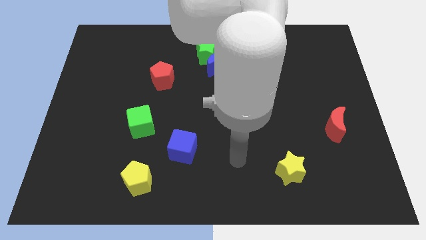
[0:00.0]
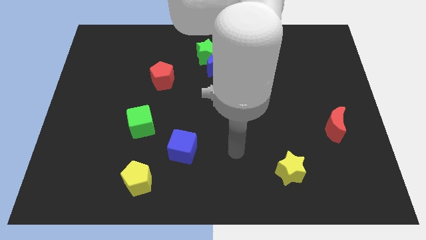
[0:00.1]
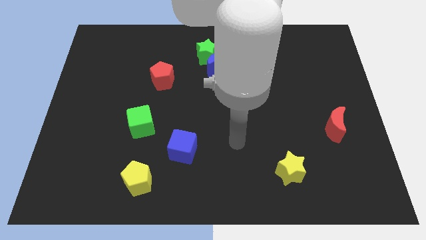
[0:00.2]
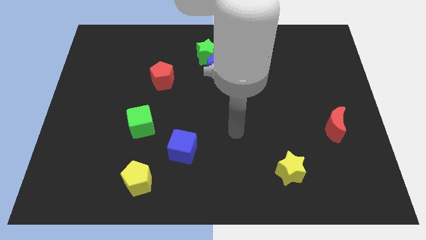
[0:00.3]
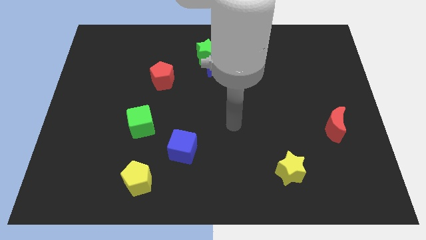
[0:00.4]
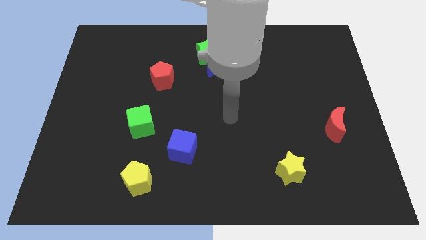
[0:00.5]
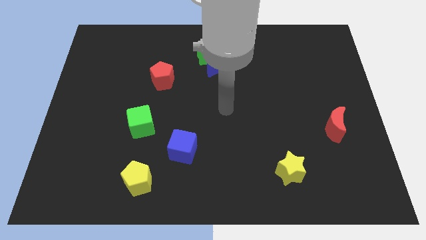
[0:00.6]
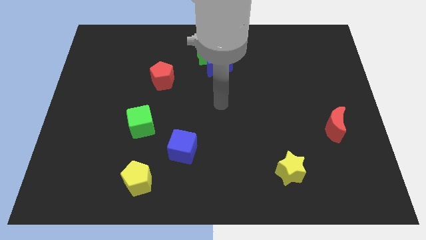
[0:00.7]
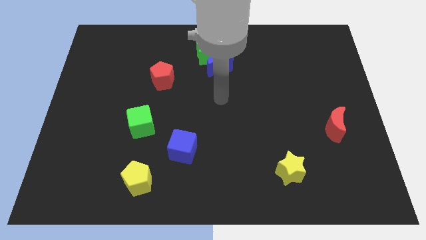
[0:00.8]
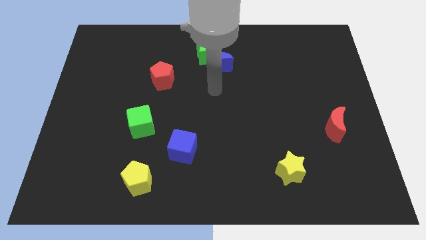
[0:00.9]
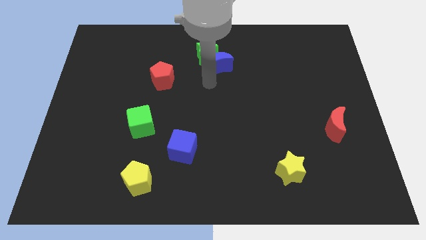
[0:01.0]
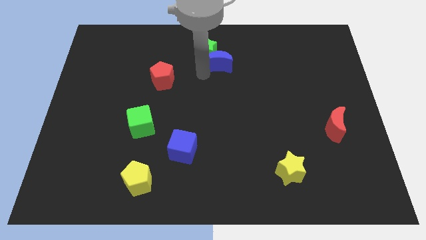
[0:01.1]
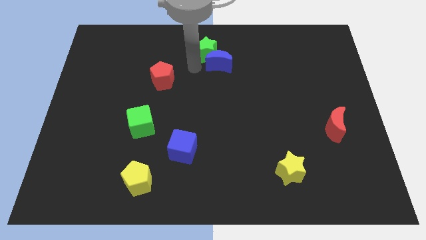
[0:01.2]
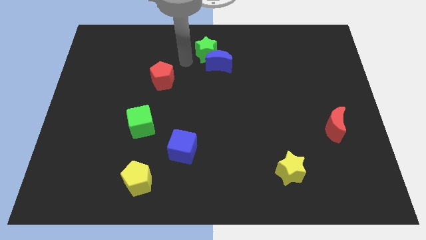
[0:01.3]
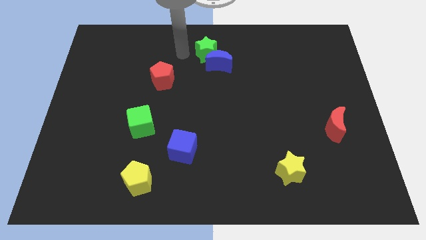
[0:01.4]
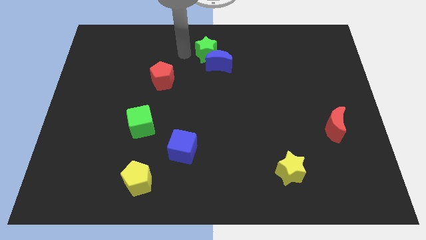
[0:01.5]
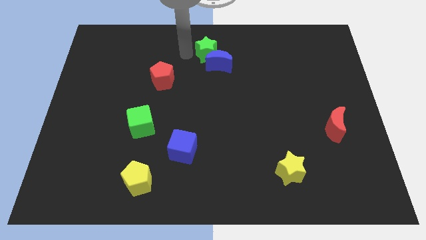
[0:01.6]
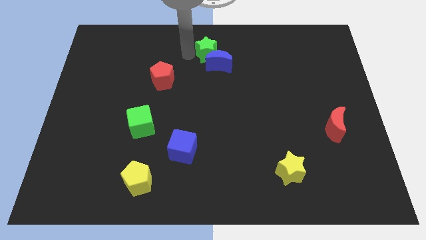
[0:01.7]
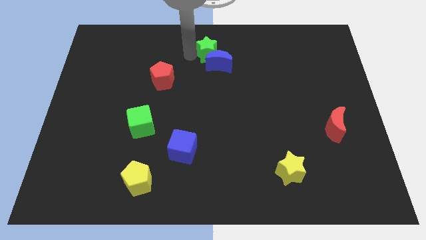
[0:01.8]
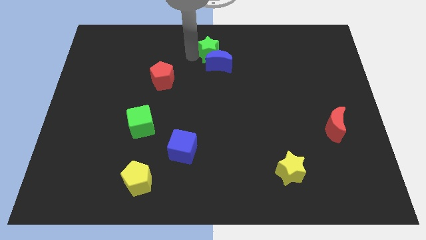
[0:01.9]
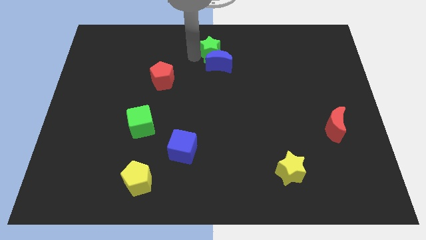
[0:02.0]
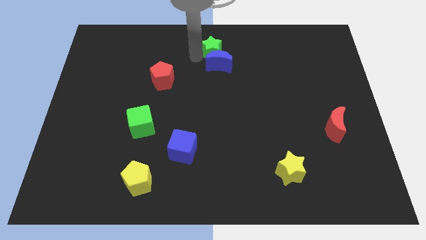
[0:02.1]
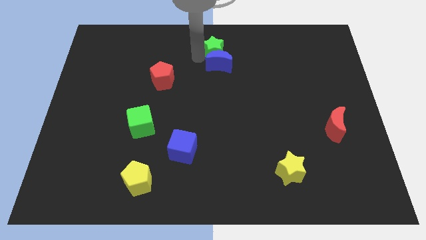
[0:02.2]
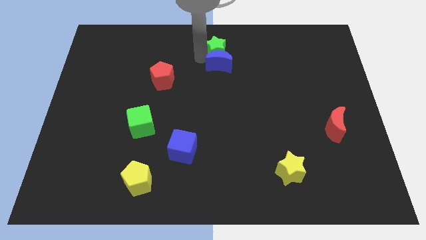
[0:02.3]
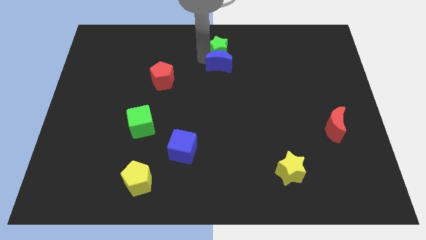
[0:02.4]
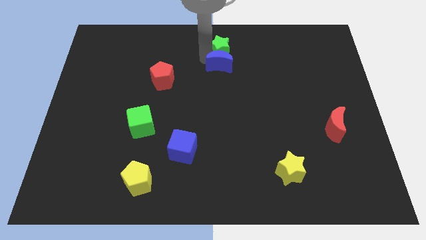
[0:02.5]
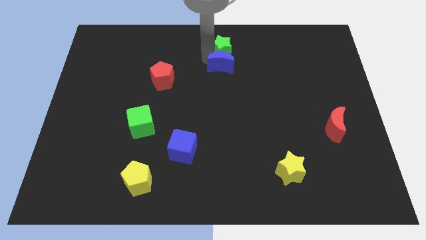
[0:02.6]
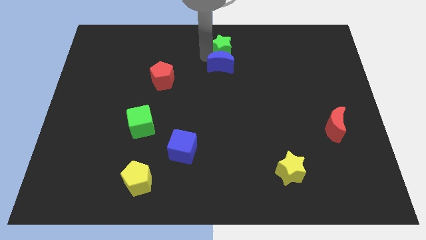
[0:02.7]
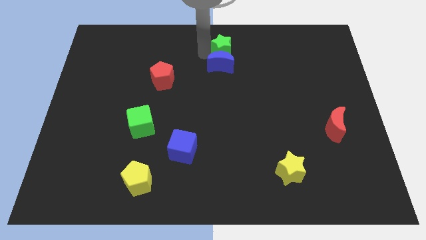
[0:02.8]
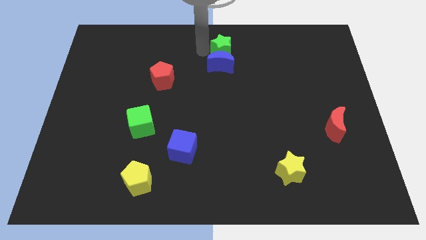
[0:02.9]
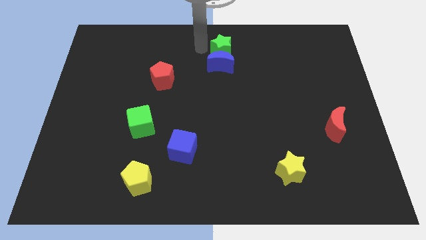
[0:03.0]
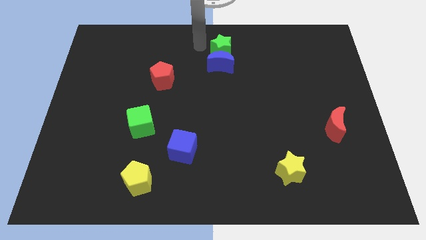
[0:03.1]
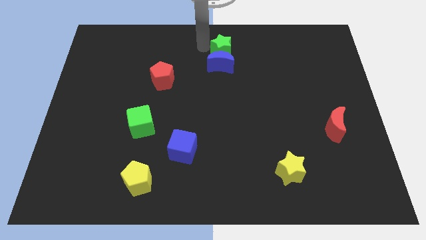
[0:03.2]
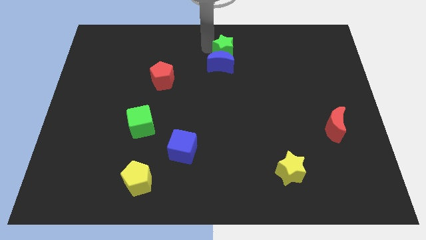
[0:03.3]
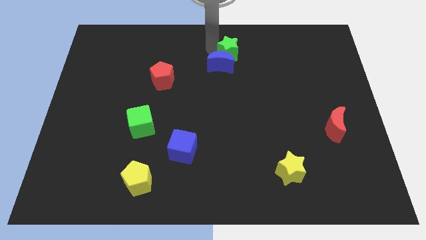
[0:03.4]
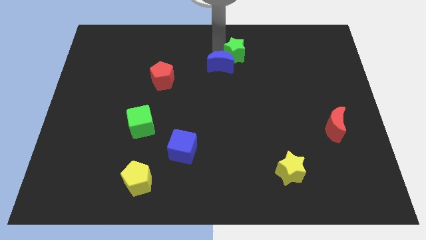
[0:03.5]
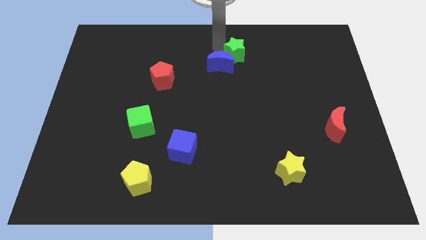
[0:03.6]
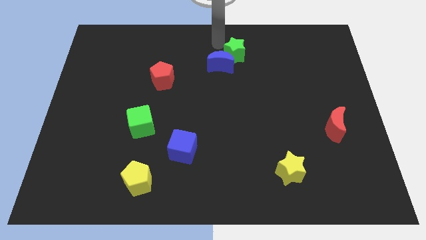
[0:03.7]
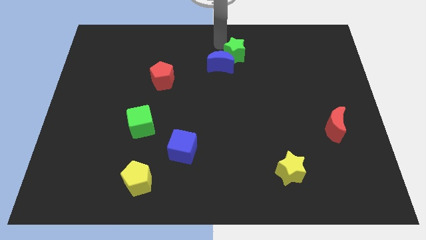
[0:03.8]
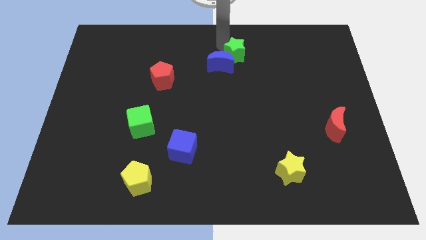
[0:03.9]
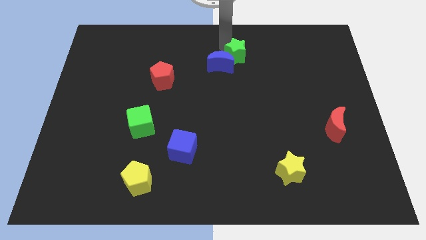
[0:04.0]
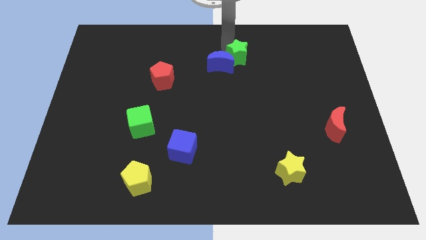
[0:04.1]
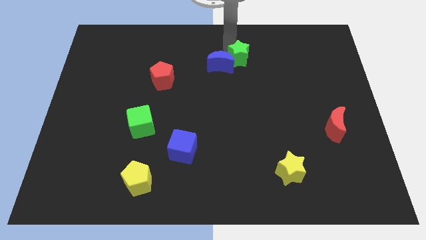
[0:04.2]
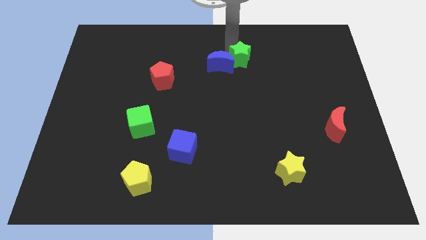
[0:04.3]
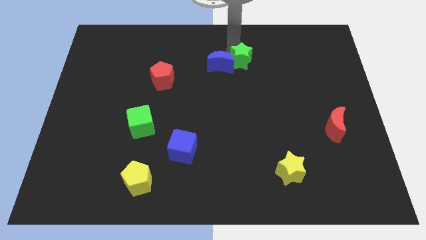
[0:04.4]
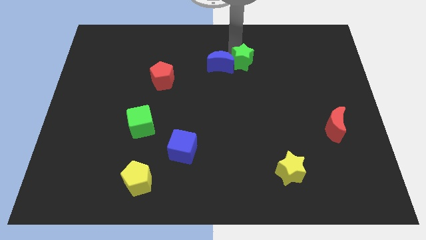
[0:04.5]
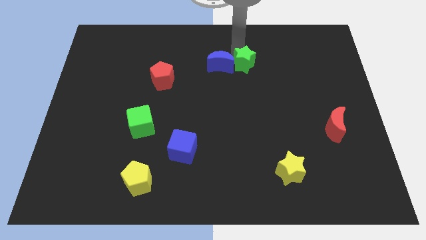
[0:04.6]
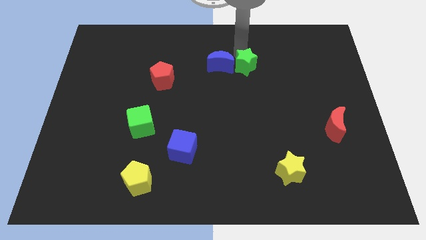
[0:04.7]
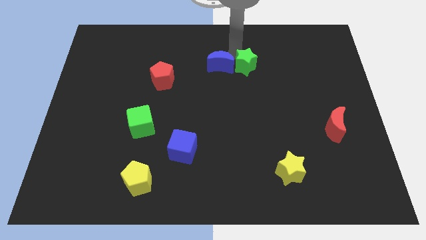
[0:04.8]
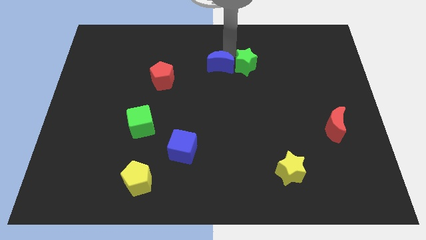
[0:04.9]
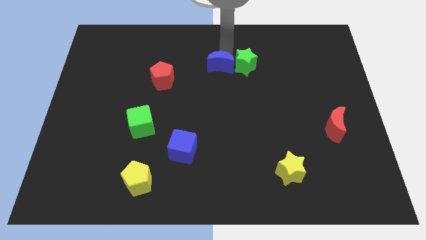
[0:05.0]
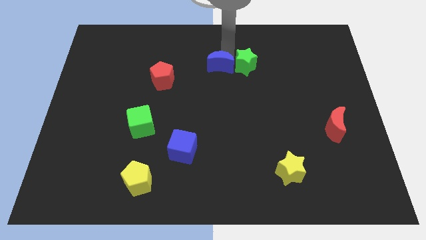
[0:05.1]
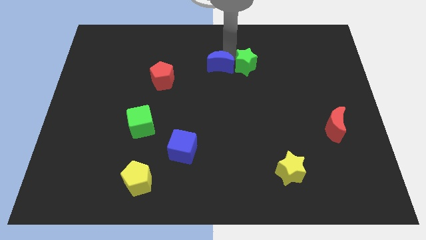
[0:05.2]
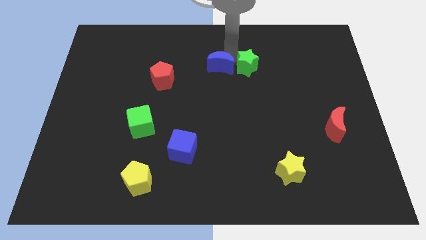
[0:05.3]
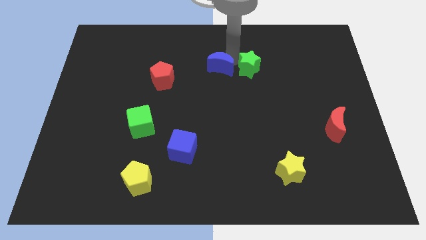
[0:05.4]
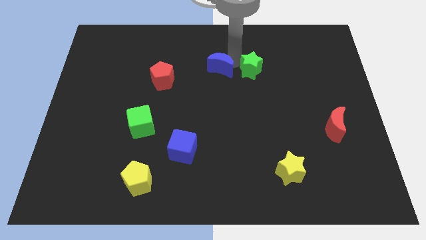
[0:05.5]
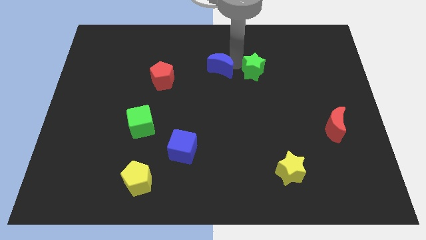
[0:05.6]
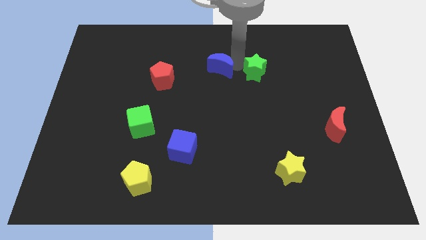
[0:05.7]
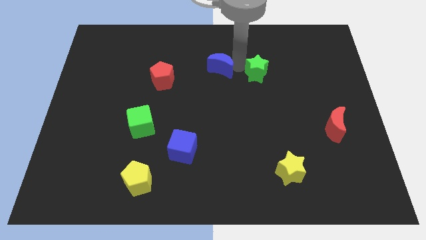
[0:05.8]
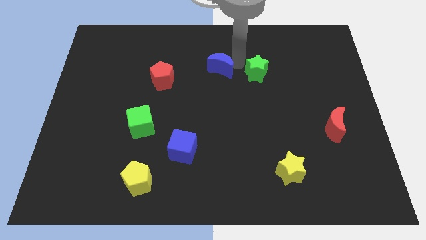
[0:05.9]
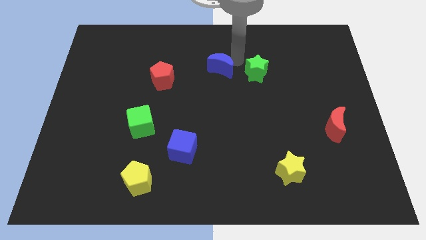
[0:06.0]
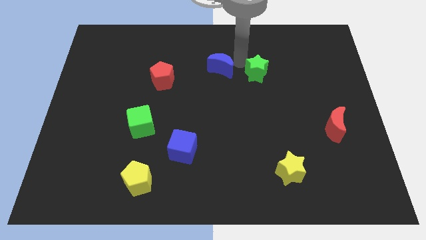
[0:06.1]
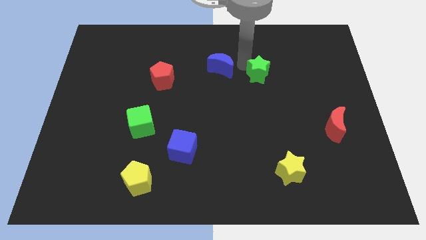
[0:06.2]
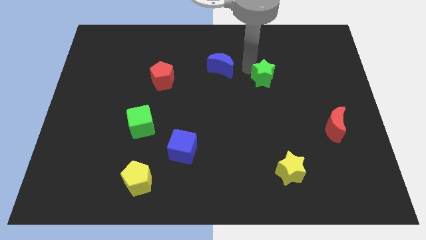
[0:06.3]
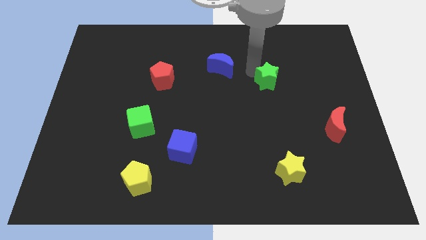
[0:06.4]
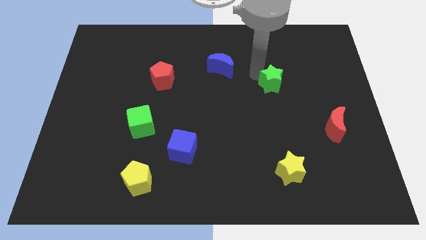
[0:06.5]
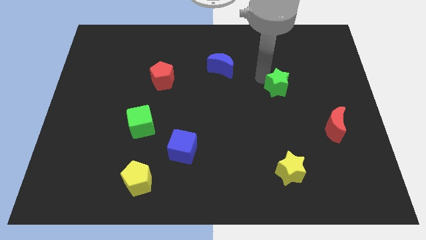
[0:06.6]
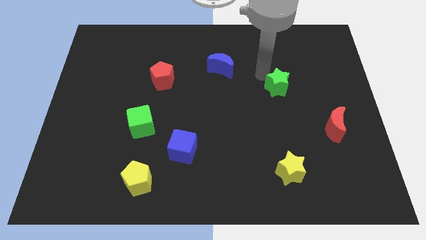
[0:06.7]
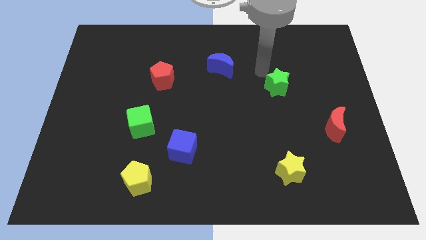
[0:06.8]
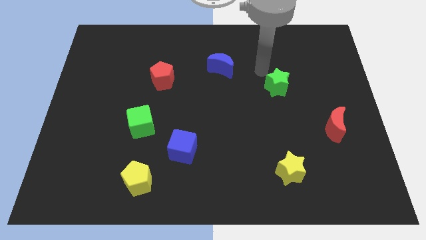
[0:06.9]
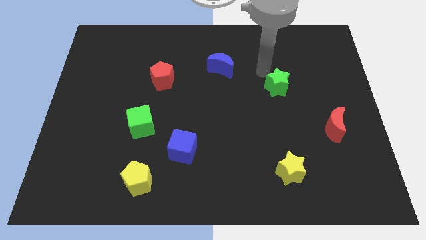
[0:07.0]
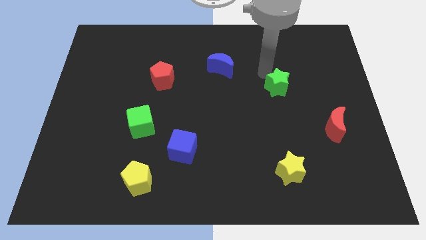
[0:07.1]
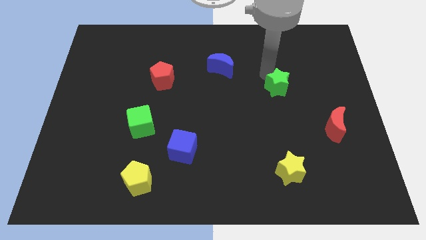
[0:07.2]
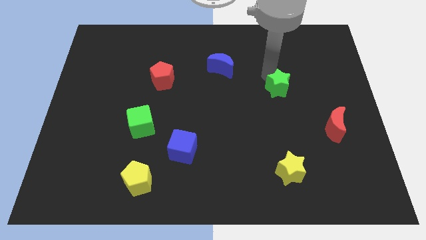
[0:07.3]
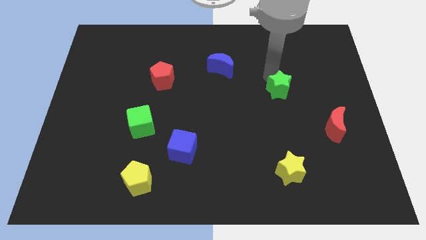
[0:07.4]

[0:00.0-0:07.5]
push the green star down and to the right diagonally

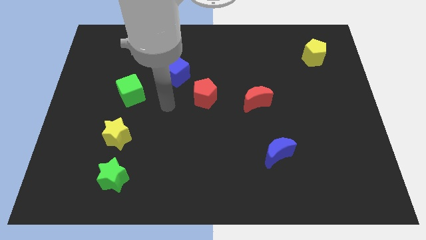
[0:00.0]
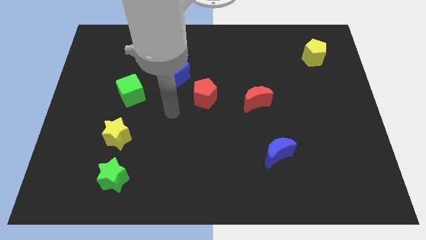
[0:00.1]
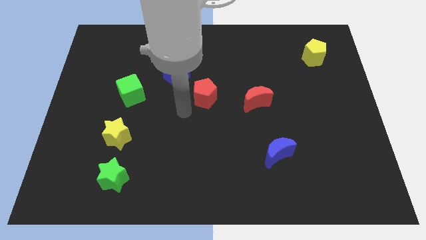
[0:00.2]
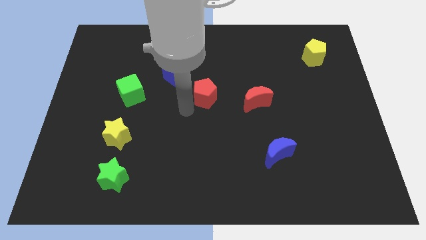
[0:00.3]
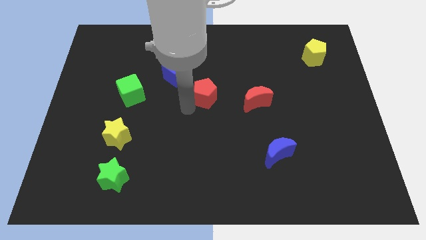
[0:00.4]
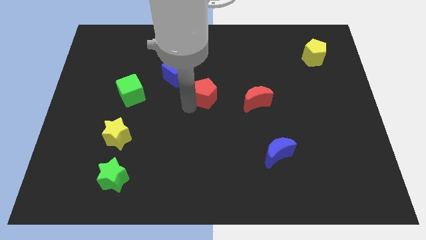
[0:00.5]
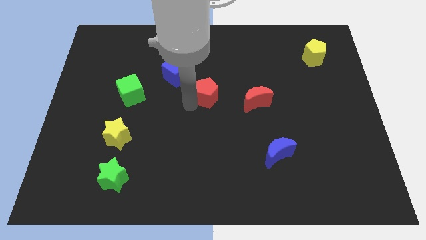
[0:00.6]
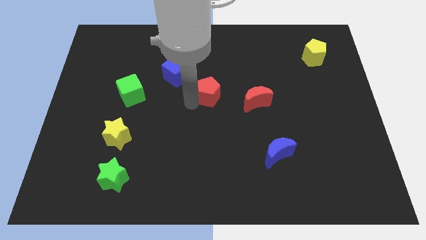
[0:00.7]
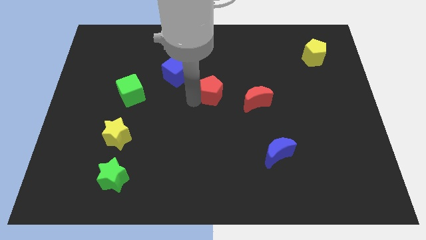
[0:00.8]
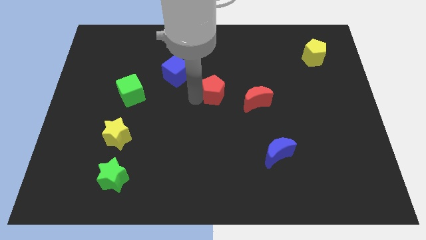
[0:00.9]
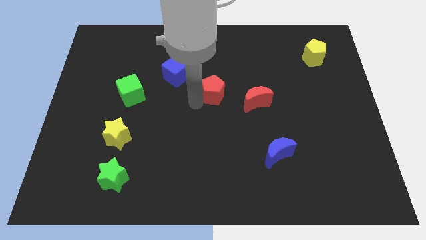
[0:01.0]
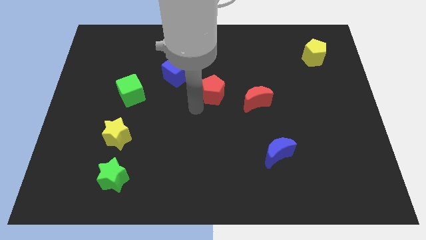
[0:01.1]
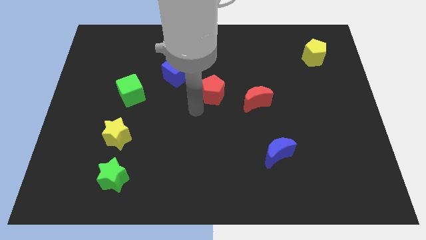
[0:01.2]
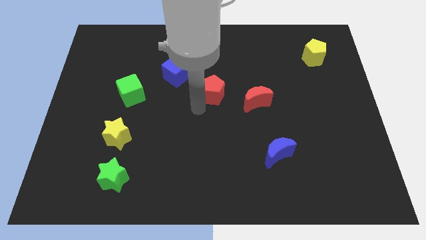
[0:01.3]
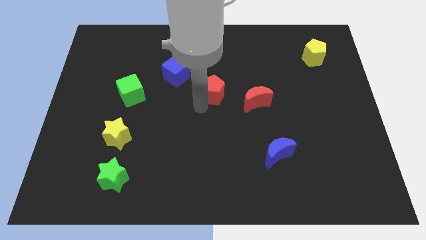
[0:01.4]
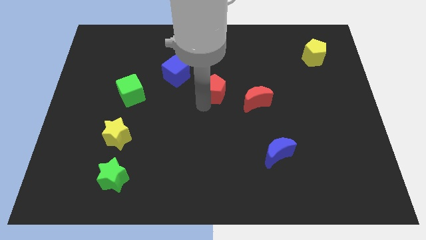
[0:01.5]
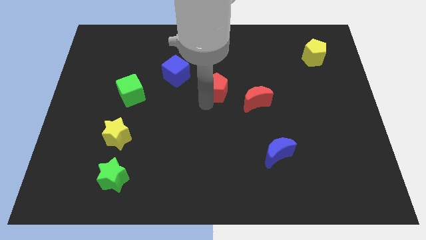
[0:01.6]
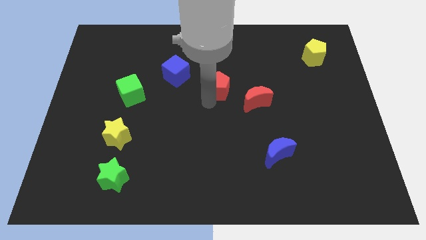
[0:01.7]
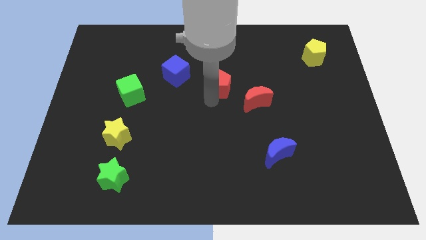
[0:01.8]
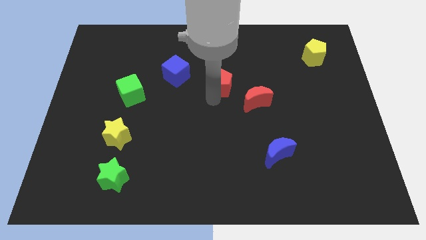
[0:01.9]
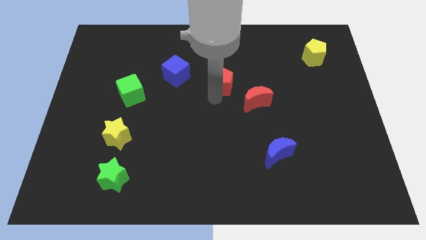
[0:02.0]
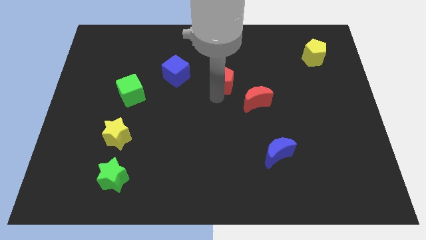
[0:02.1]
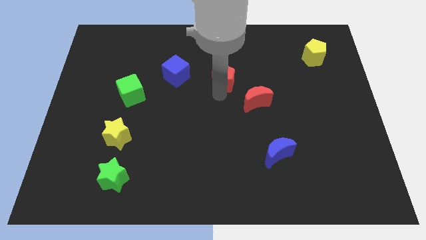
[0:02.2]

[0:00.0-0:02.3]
push the red pentagon diagonally upwards and to the right a little bit
